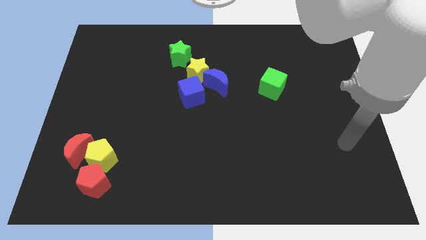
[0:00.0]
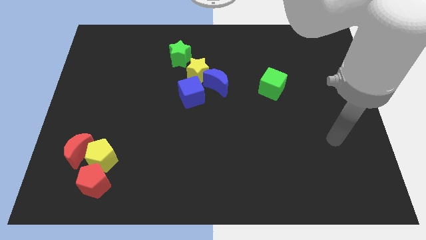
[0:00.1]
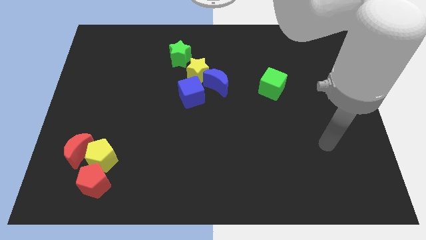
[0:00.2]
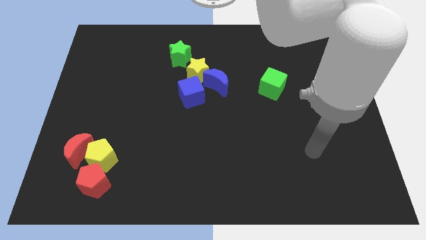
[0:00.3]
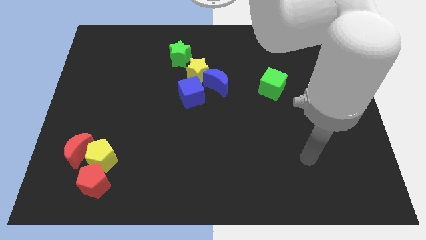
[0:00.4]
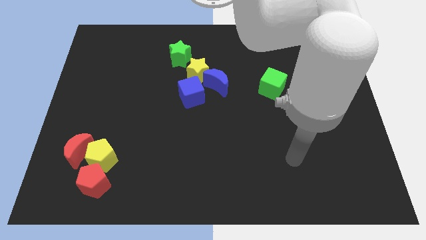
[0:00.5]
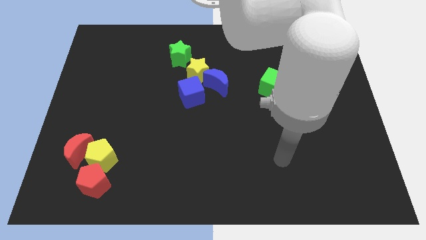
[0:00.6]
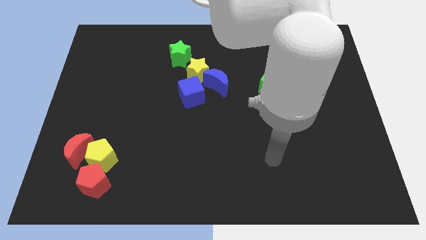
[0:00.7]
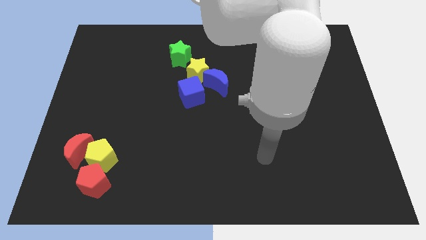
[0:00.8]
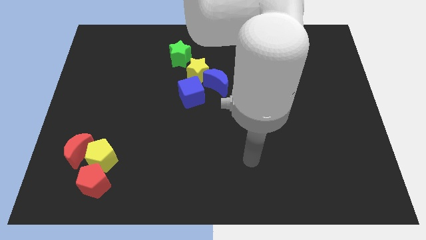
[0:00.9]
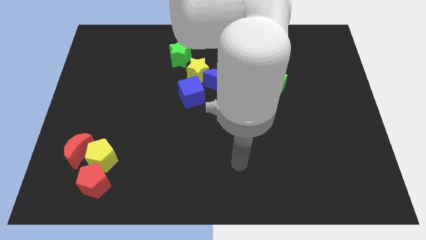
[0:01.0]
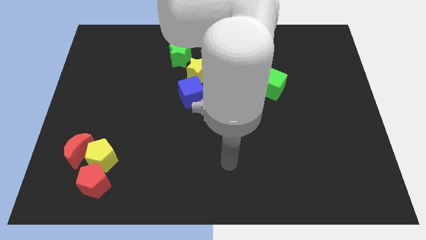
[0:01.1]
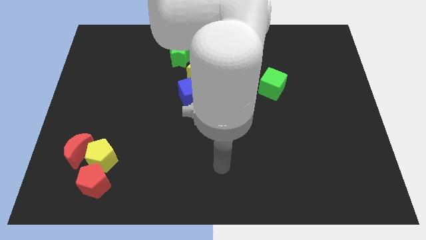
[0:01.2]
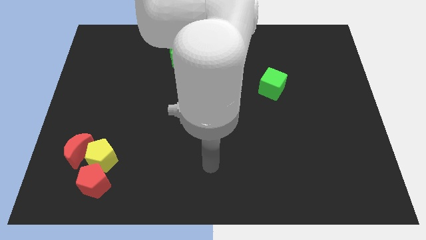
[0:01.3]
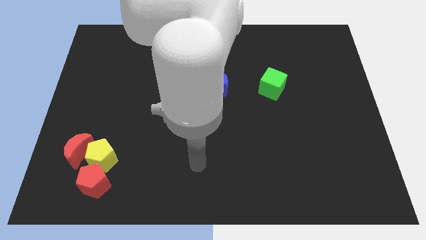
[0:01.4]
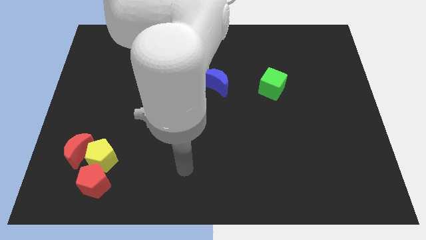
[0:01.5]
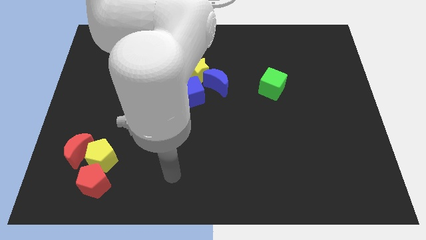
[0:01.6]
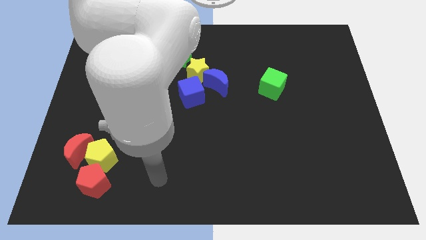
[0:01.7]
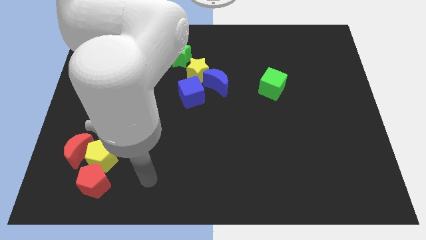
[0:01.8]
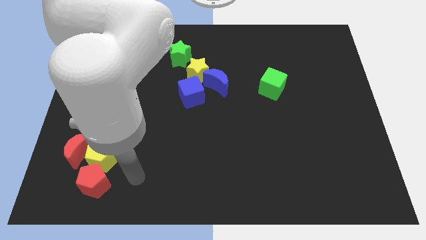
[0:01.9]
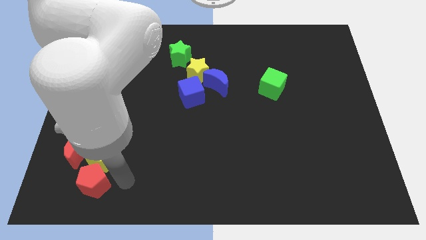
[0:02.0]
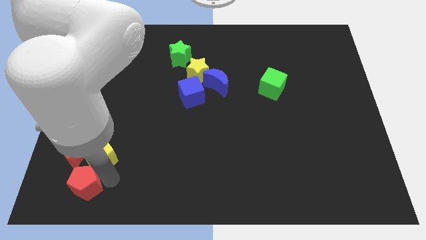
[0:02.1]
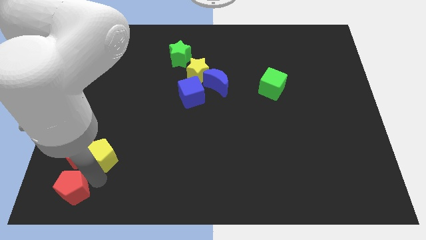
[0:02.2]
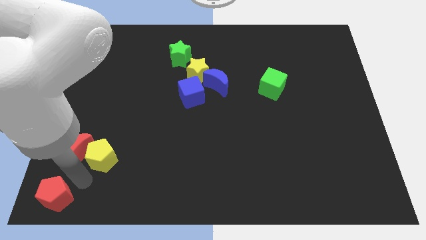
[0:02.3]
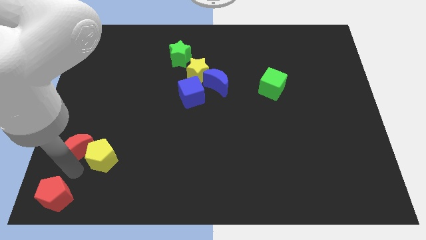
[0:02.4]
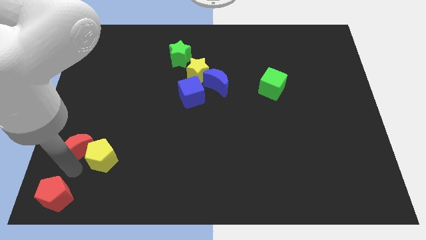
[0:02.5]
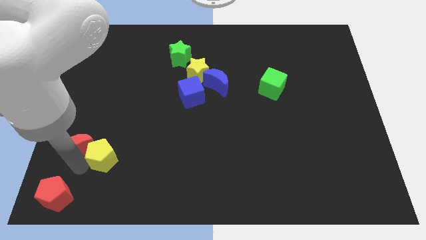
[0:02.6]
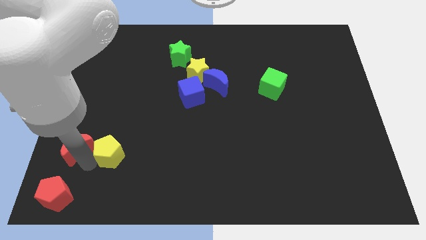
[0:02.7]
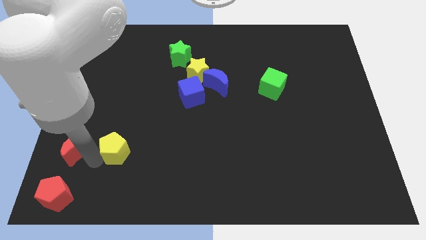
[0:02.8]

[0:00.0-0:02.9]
move the yellow pentagon away from the red moon and red pentagon

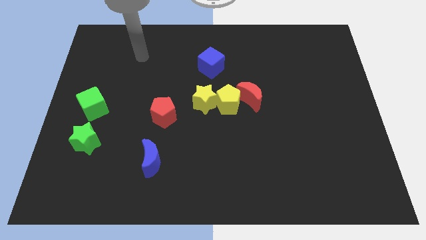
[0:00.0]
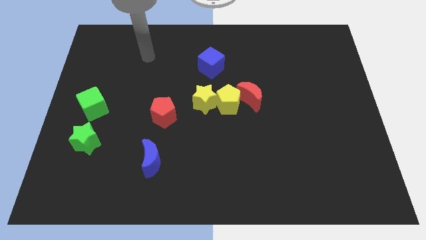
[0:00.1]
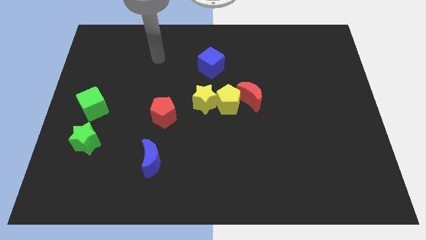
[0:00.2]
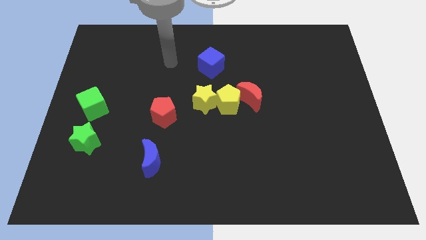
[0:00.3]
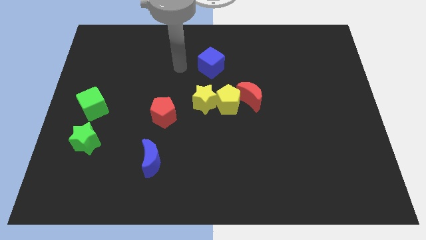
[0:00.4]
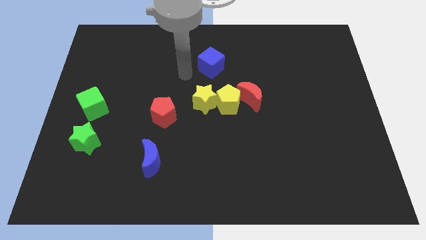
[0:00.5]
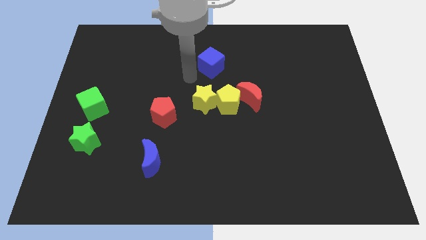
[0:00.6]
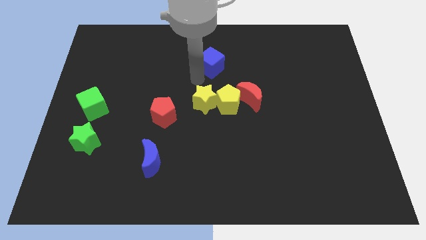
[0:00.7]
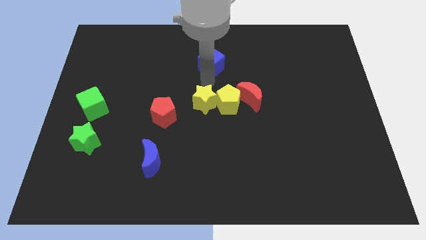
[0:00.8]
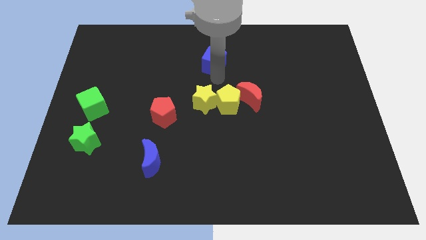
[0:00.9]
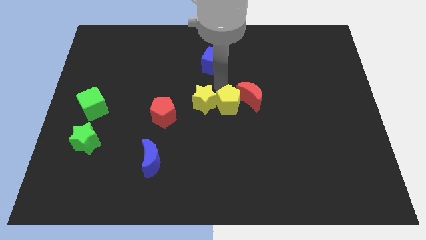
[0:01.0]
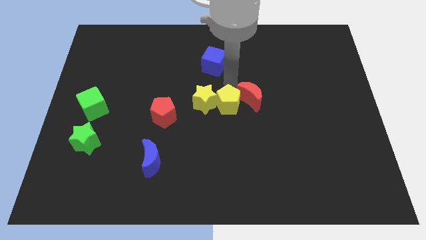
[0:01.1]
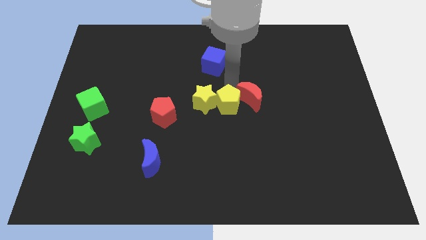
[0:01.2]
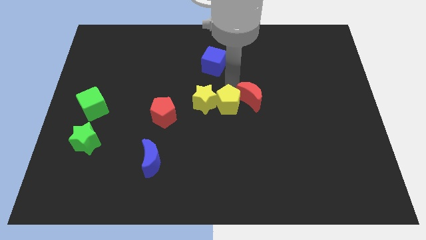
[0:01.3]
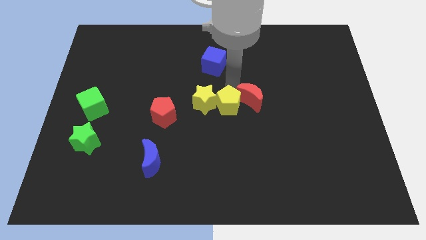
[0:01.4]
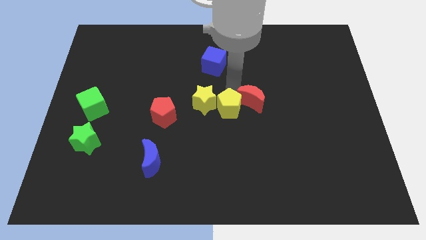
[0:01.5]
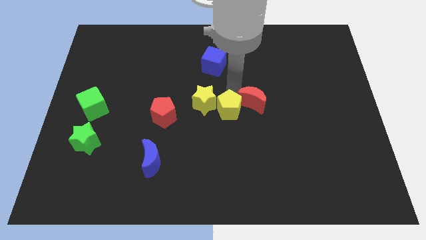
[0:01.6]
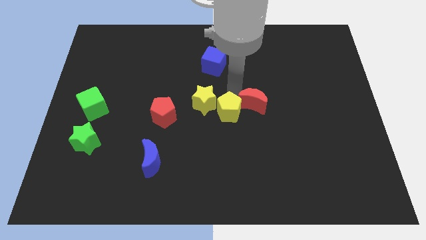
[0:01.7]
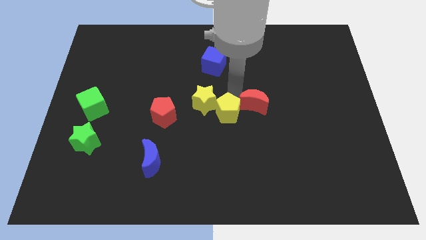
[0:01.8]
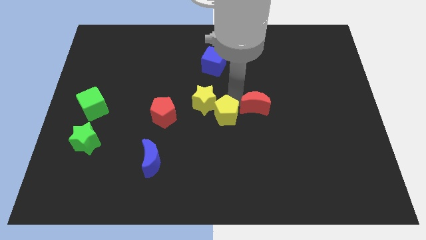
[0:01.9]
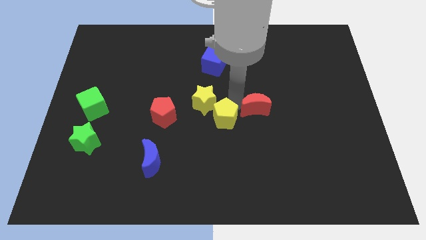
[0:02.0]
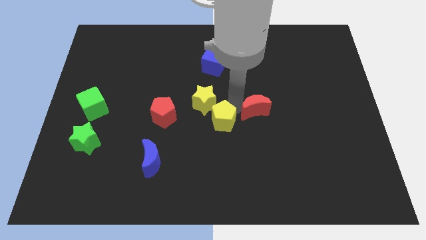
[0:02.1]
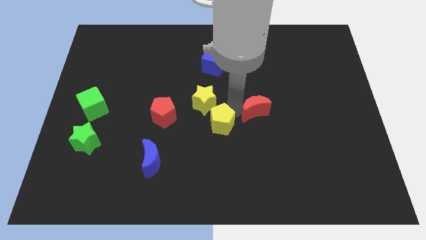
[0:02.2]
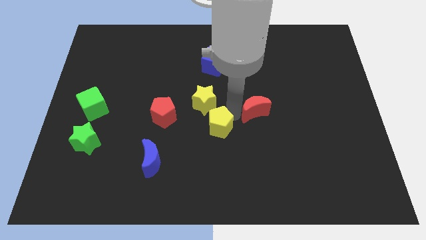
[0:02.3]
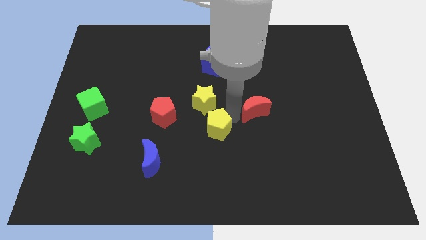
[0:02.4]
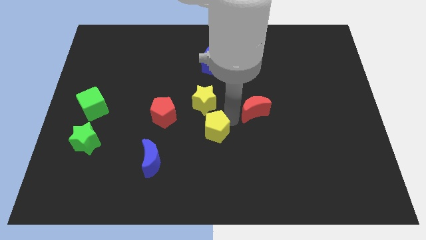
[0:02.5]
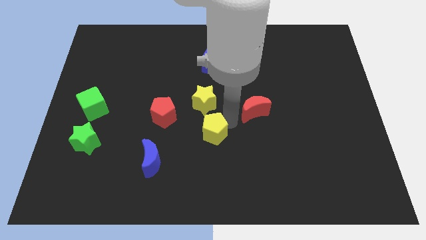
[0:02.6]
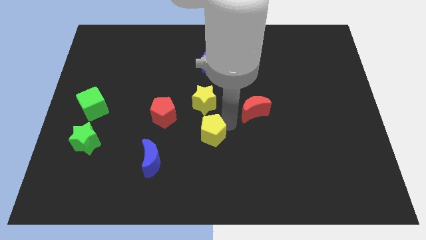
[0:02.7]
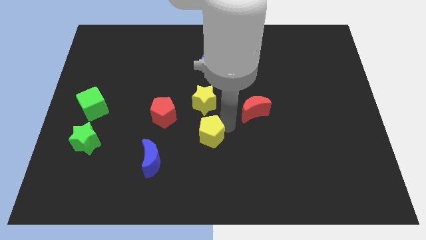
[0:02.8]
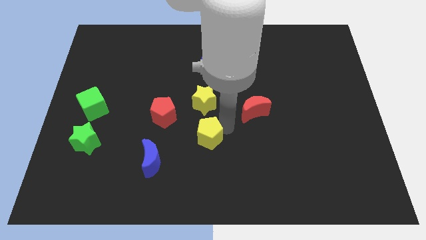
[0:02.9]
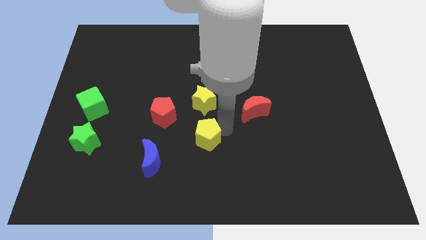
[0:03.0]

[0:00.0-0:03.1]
separate the yellow pentagon from the yellow star and red moon

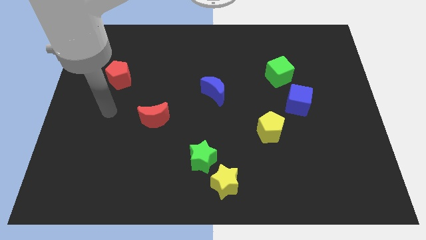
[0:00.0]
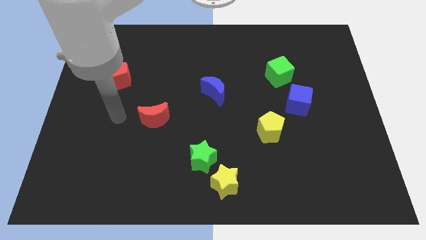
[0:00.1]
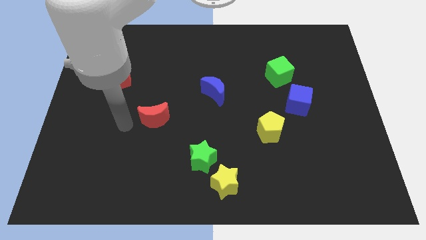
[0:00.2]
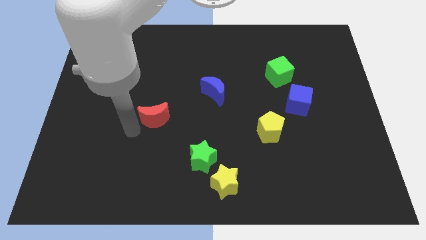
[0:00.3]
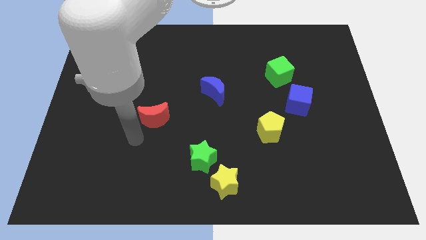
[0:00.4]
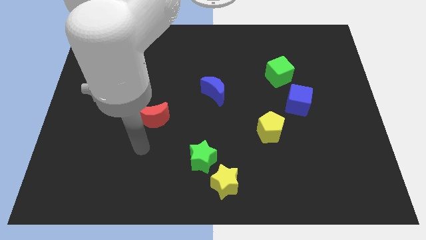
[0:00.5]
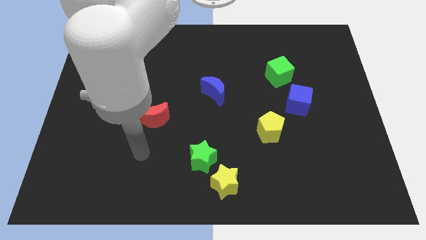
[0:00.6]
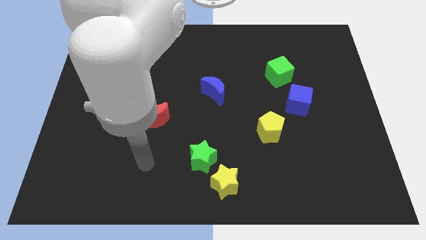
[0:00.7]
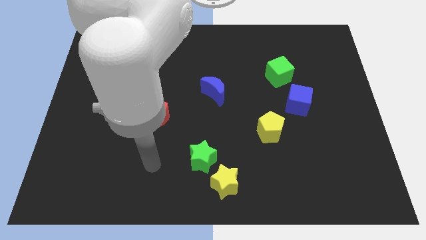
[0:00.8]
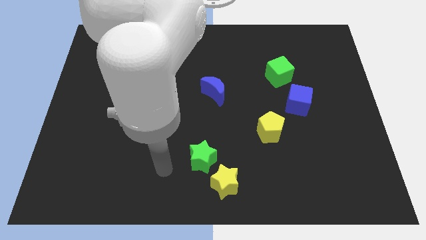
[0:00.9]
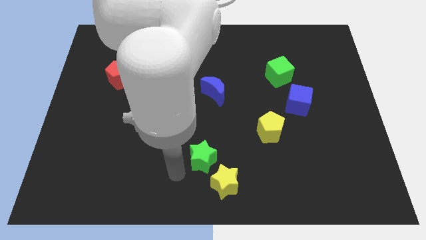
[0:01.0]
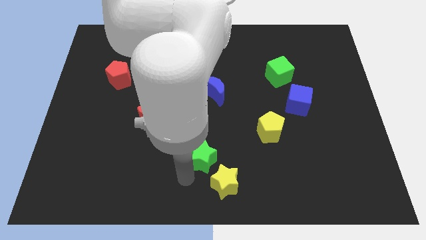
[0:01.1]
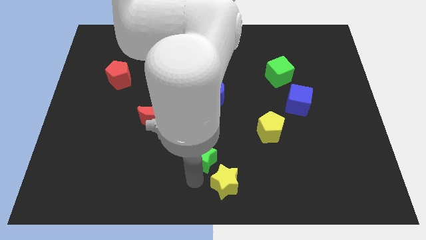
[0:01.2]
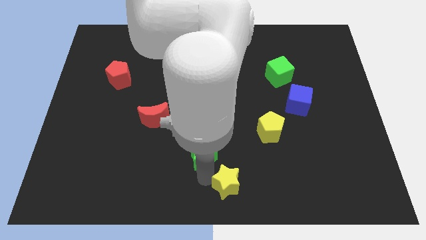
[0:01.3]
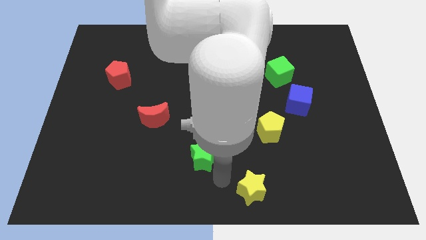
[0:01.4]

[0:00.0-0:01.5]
move the green star away from the yellow star

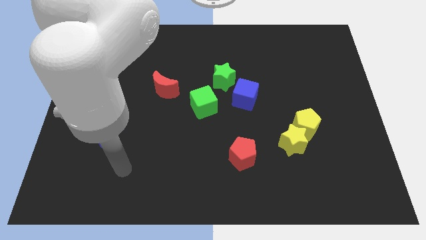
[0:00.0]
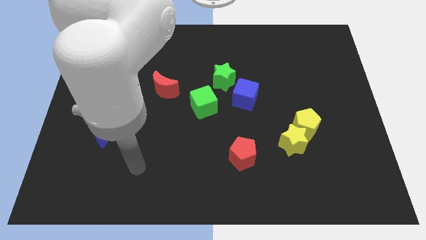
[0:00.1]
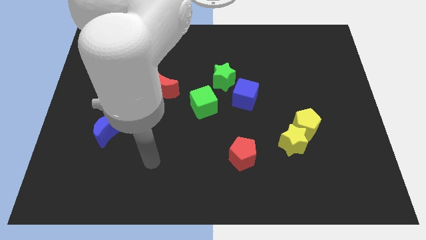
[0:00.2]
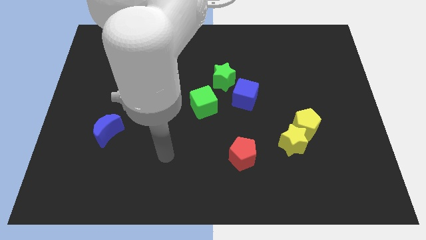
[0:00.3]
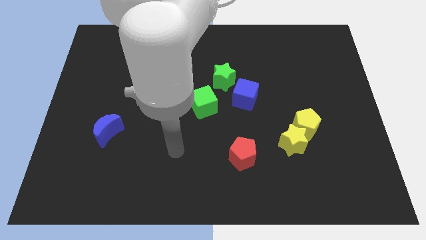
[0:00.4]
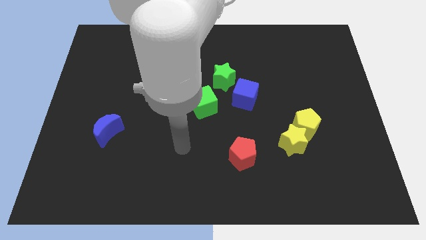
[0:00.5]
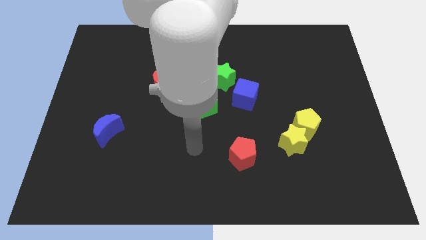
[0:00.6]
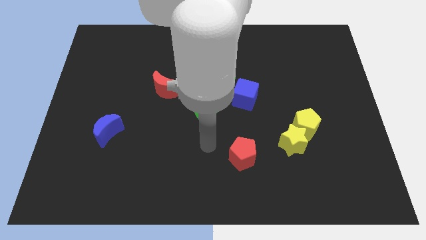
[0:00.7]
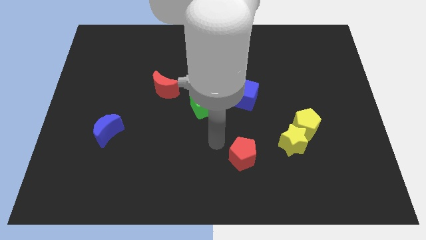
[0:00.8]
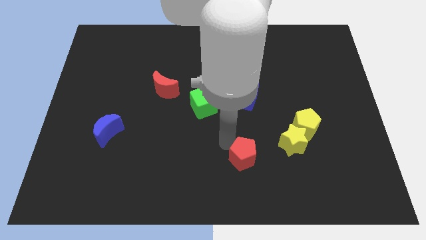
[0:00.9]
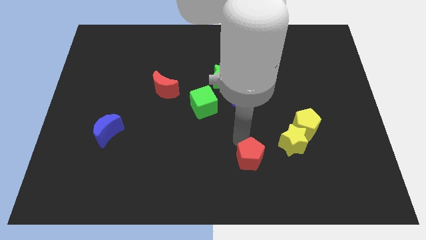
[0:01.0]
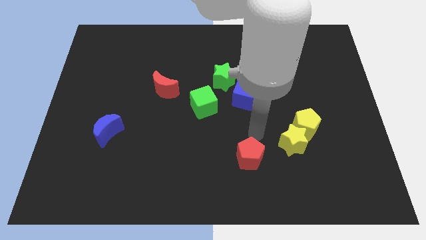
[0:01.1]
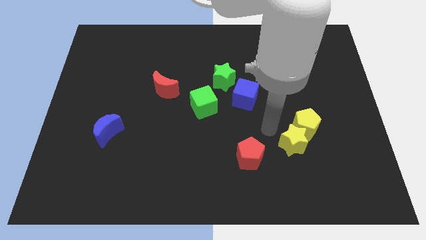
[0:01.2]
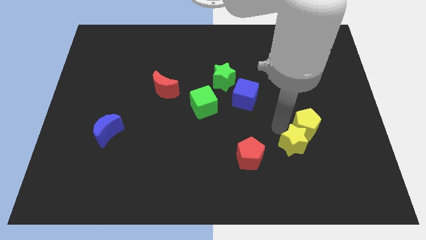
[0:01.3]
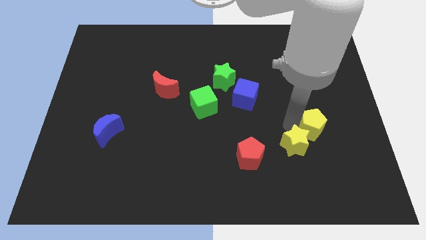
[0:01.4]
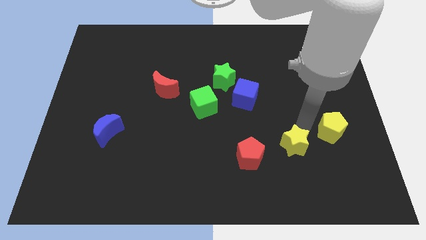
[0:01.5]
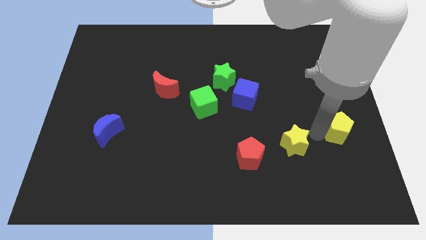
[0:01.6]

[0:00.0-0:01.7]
separate the yellow star from the yellow pentagon

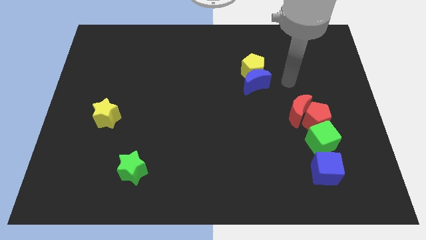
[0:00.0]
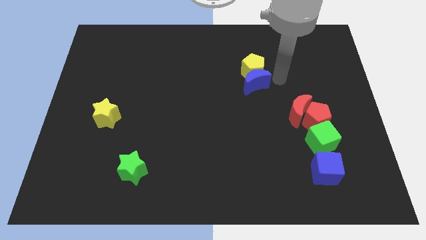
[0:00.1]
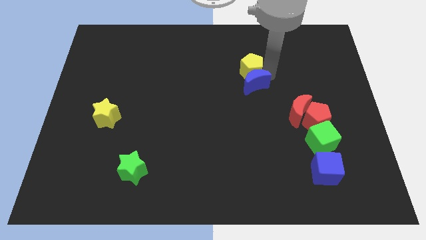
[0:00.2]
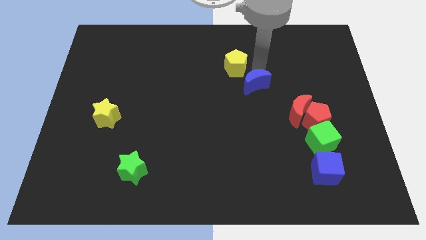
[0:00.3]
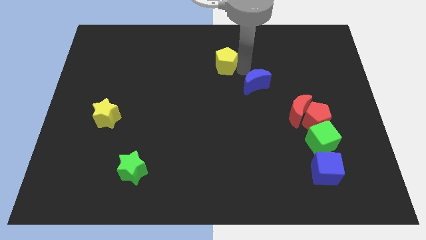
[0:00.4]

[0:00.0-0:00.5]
separate the blue moon from the yellow pentagon
